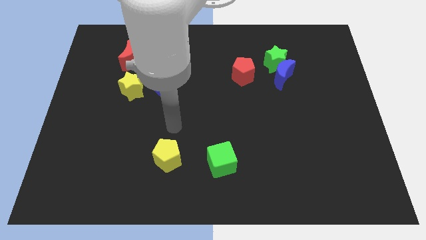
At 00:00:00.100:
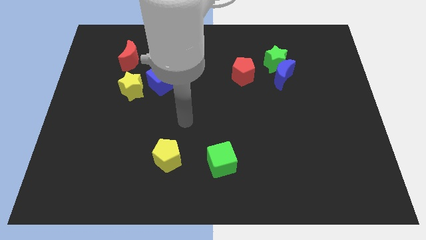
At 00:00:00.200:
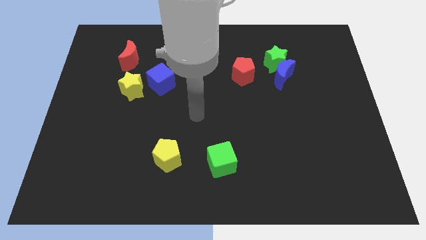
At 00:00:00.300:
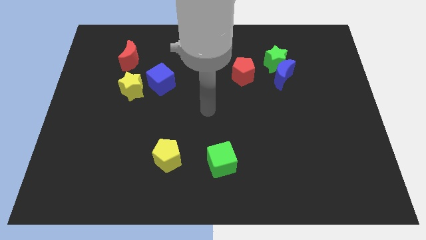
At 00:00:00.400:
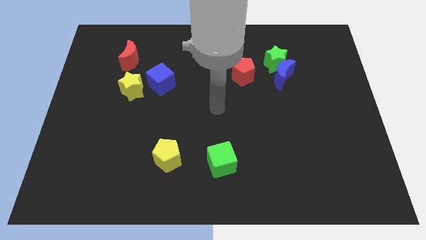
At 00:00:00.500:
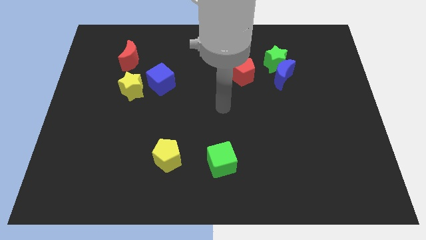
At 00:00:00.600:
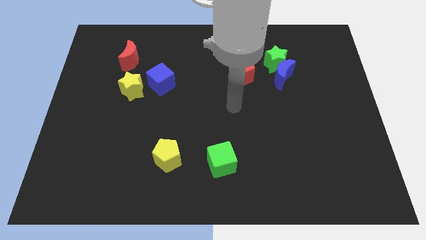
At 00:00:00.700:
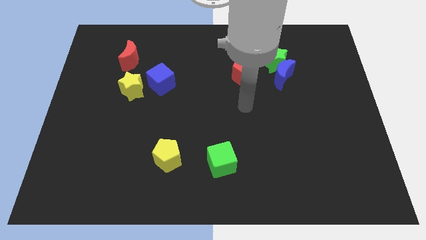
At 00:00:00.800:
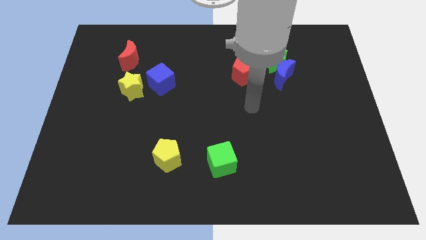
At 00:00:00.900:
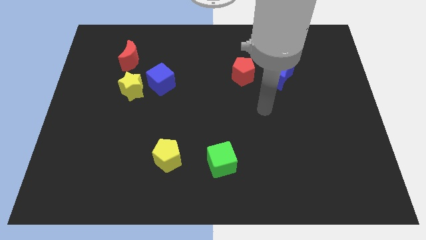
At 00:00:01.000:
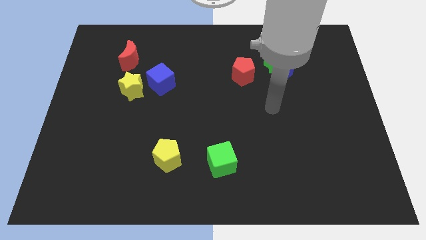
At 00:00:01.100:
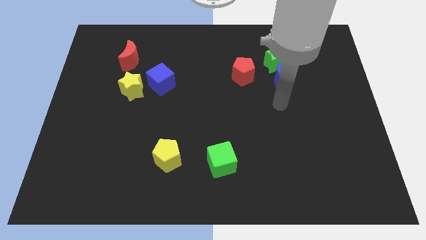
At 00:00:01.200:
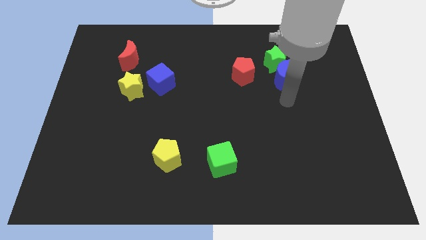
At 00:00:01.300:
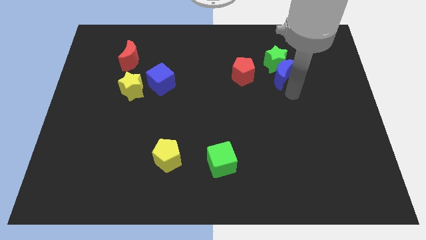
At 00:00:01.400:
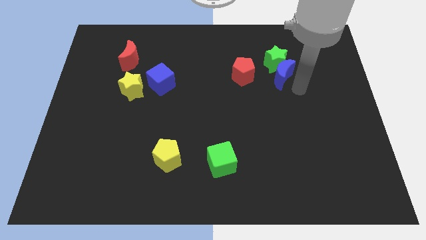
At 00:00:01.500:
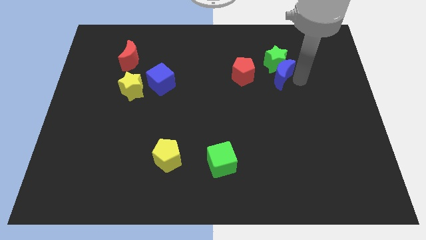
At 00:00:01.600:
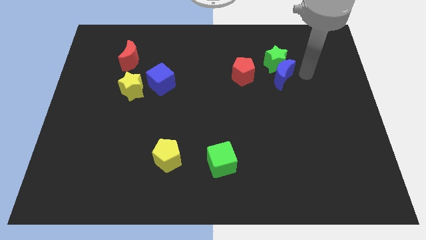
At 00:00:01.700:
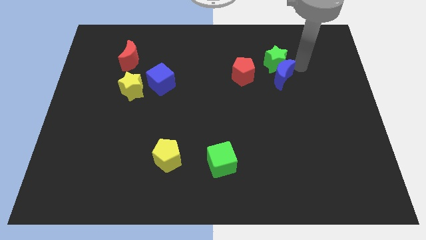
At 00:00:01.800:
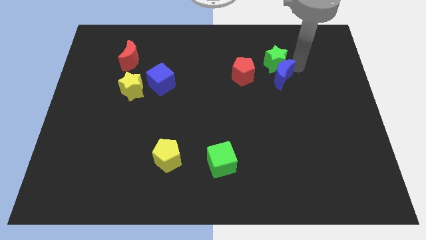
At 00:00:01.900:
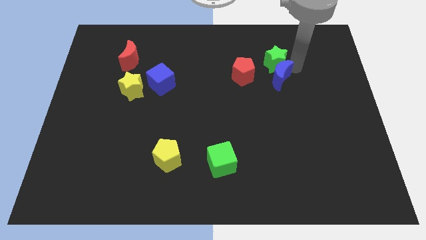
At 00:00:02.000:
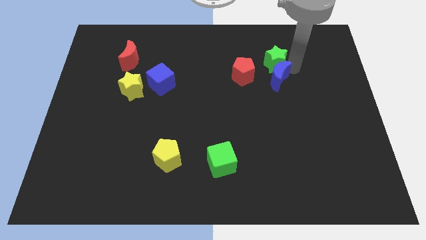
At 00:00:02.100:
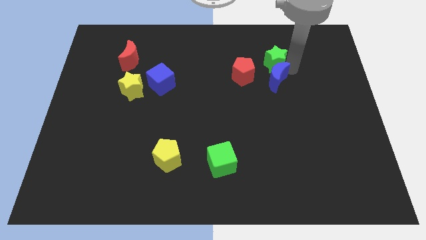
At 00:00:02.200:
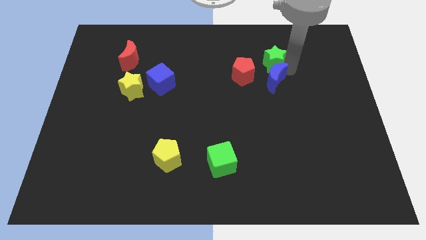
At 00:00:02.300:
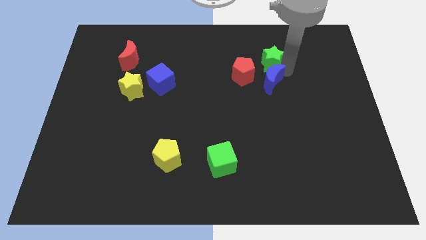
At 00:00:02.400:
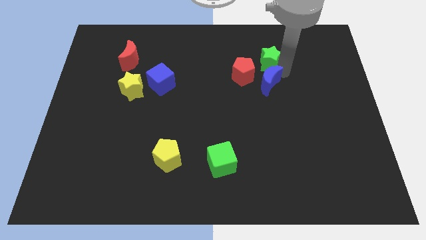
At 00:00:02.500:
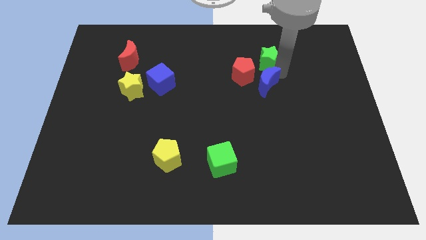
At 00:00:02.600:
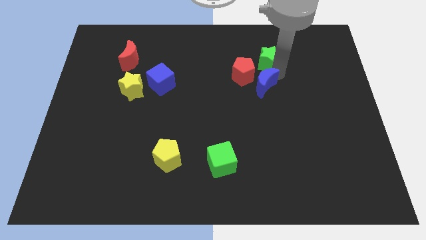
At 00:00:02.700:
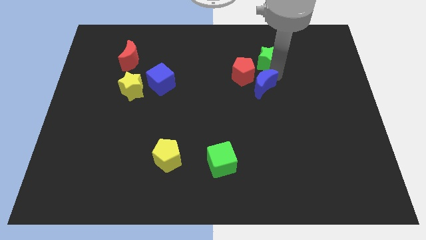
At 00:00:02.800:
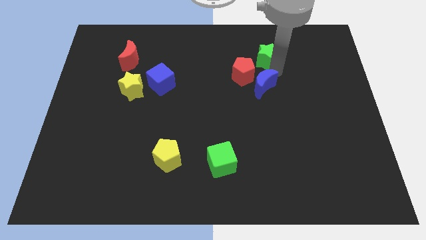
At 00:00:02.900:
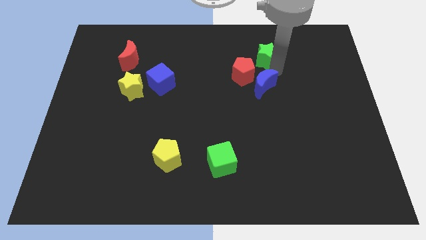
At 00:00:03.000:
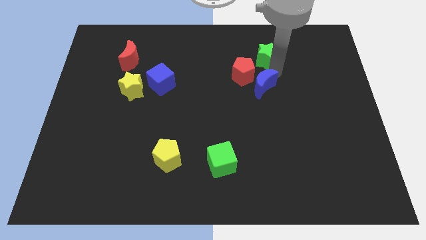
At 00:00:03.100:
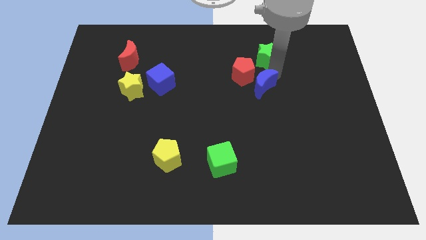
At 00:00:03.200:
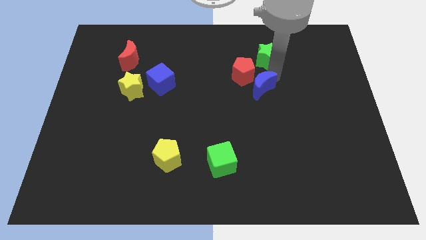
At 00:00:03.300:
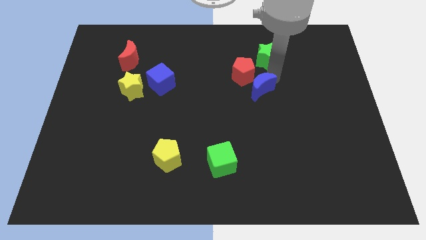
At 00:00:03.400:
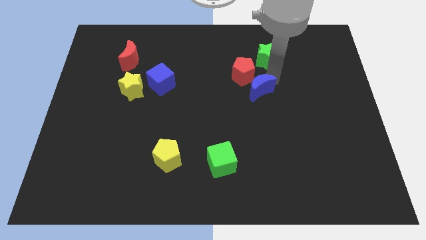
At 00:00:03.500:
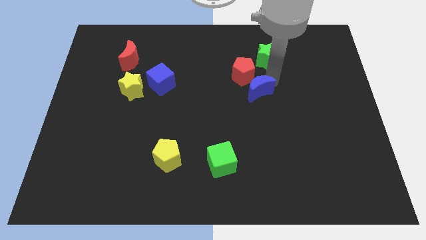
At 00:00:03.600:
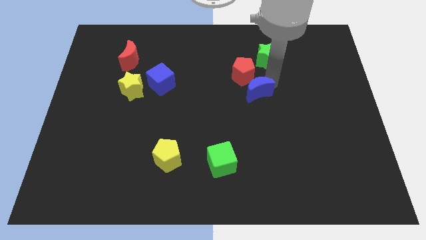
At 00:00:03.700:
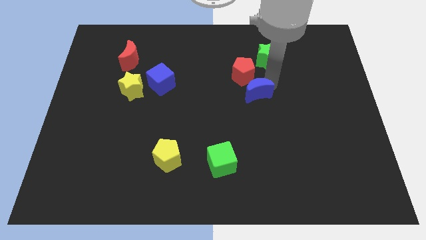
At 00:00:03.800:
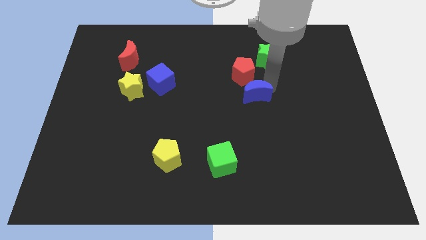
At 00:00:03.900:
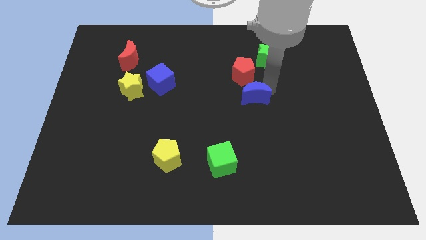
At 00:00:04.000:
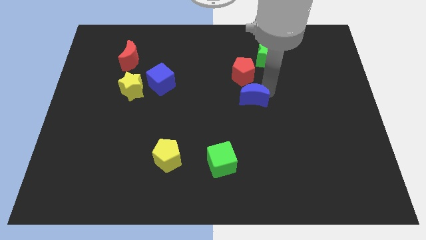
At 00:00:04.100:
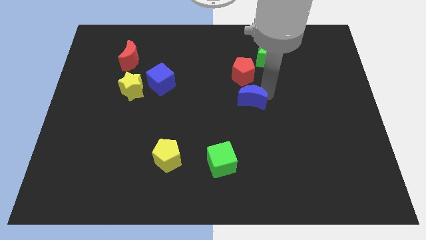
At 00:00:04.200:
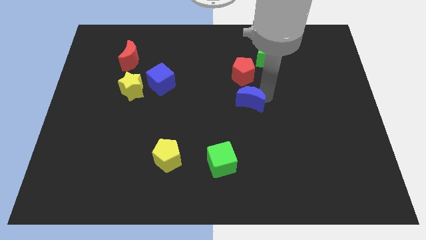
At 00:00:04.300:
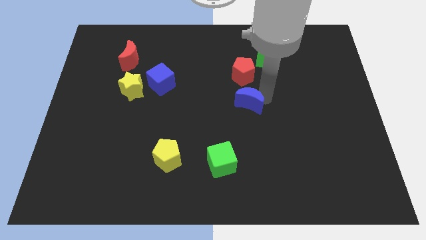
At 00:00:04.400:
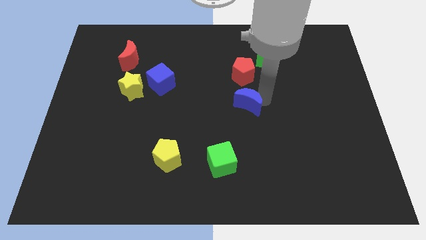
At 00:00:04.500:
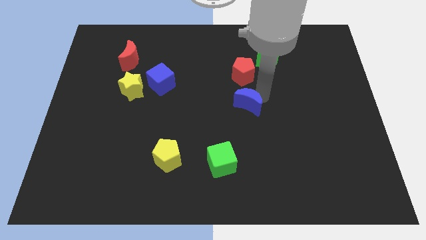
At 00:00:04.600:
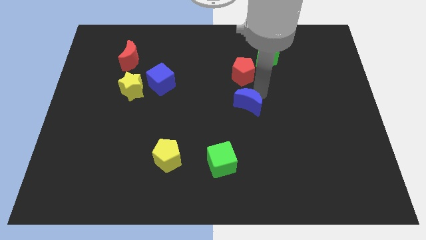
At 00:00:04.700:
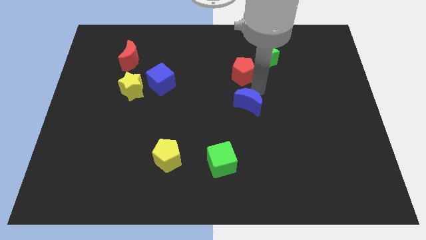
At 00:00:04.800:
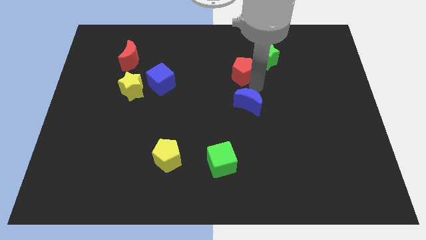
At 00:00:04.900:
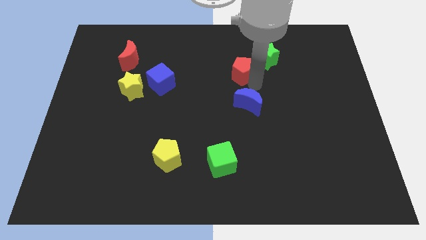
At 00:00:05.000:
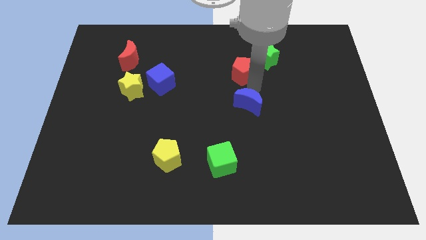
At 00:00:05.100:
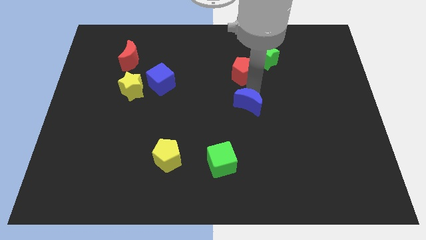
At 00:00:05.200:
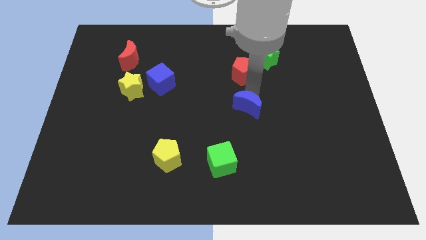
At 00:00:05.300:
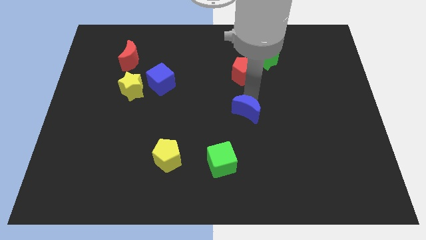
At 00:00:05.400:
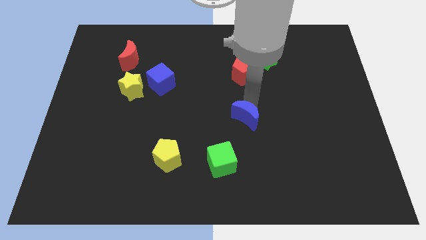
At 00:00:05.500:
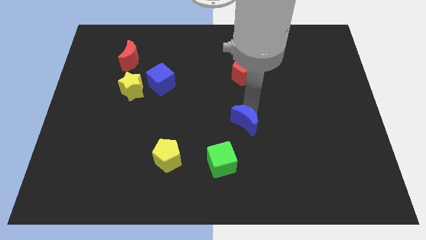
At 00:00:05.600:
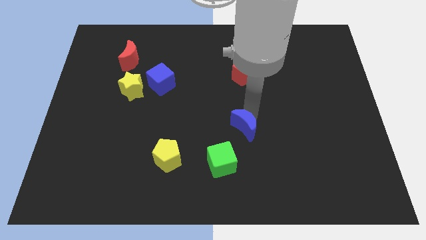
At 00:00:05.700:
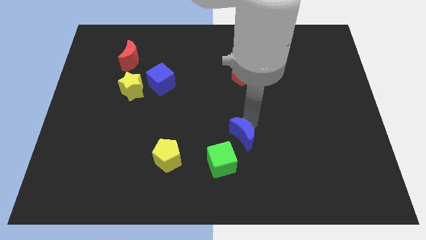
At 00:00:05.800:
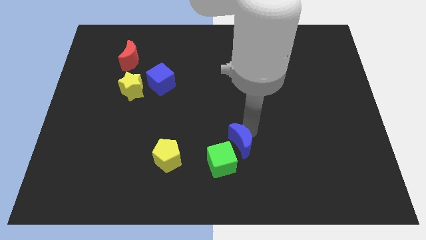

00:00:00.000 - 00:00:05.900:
slide the blue moon diagonally downwards and to the left

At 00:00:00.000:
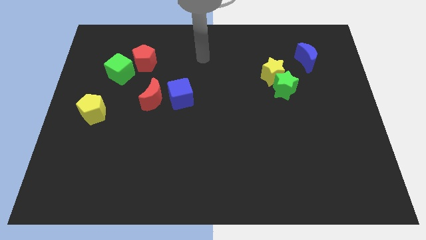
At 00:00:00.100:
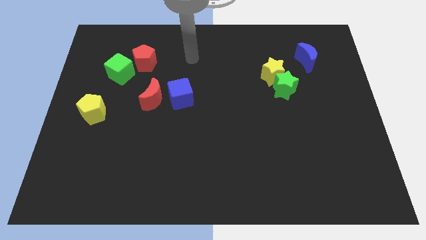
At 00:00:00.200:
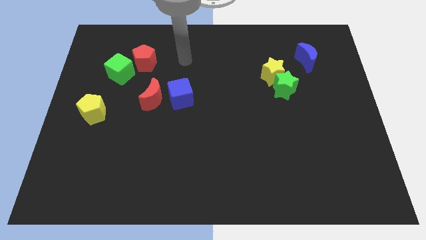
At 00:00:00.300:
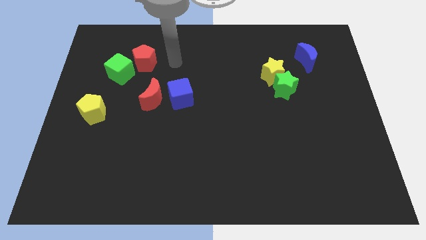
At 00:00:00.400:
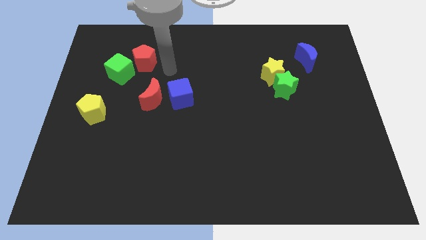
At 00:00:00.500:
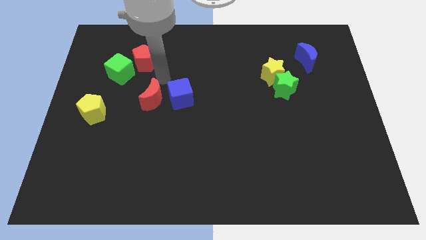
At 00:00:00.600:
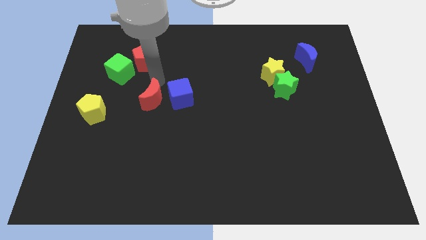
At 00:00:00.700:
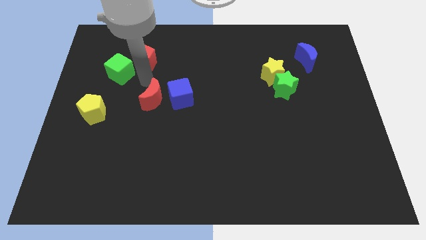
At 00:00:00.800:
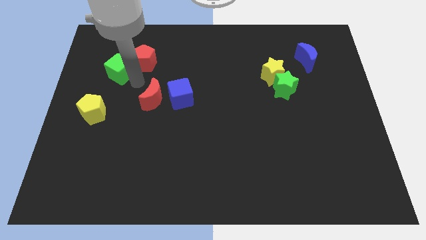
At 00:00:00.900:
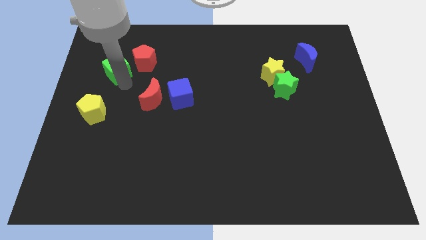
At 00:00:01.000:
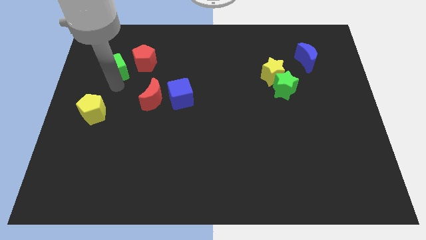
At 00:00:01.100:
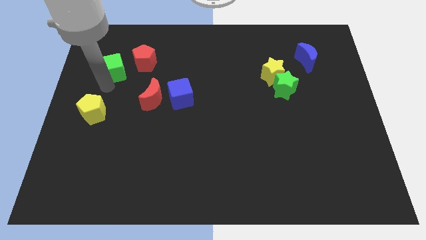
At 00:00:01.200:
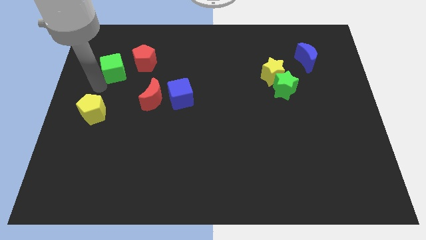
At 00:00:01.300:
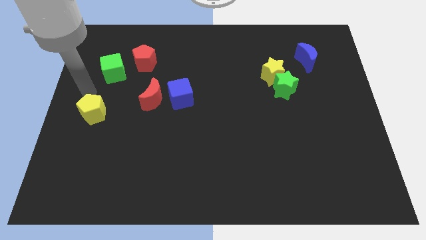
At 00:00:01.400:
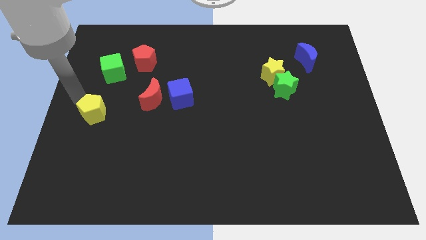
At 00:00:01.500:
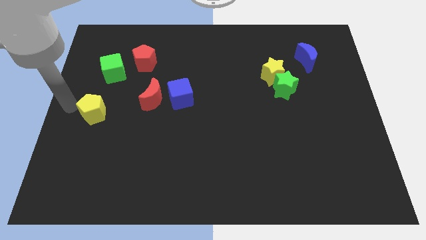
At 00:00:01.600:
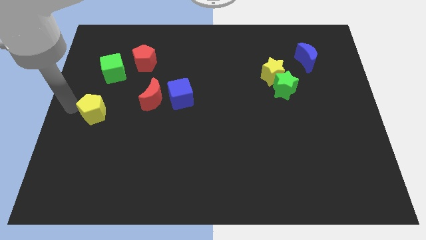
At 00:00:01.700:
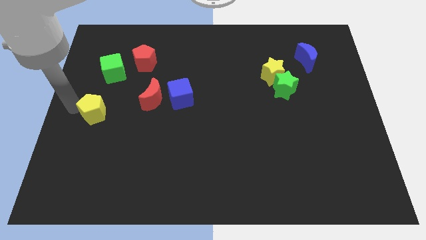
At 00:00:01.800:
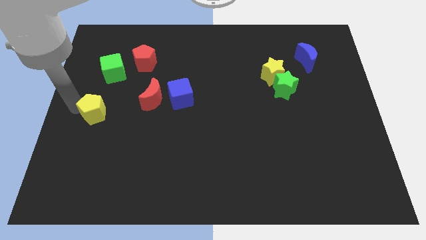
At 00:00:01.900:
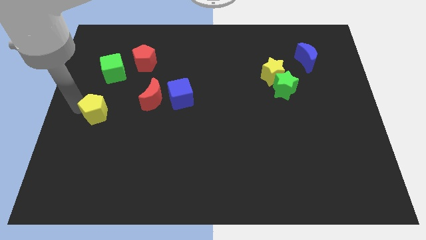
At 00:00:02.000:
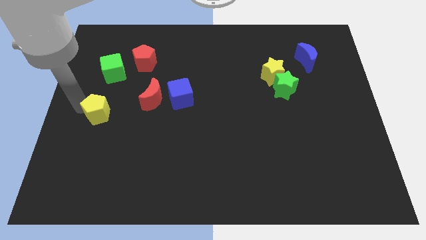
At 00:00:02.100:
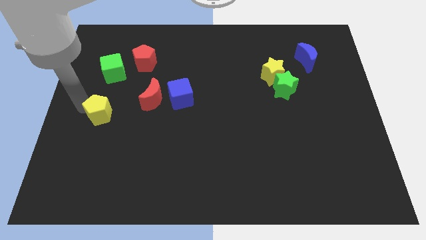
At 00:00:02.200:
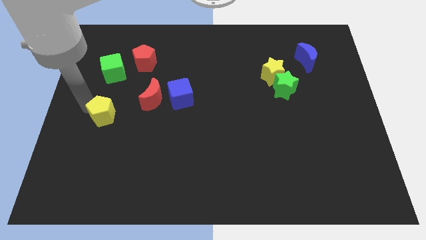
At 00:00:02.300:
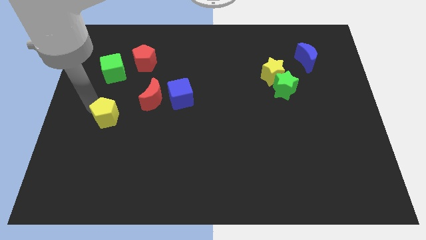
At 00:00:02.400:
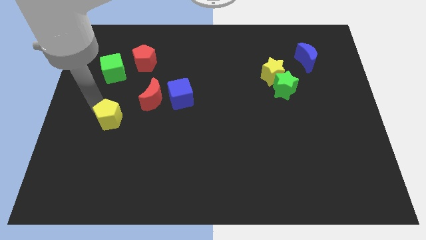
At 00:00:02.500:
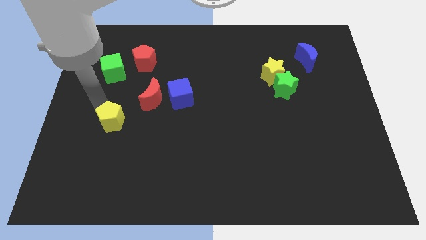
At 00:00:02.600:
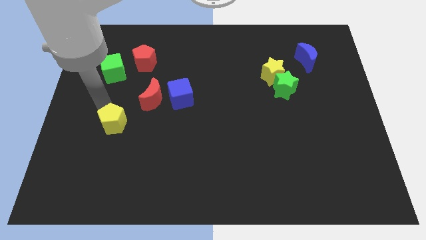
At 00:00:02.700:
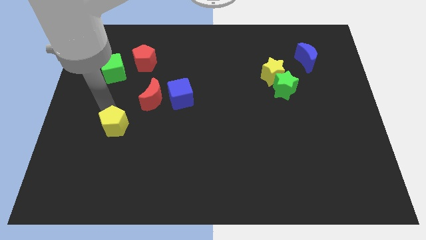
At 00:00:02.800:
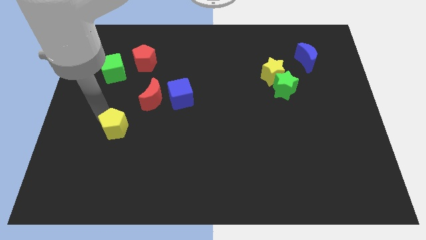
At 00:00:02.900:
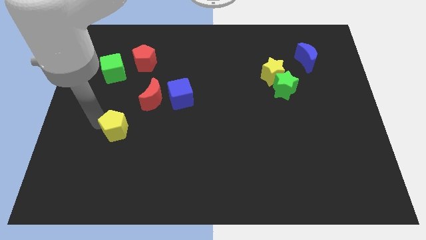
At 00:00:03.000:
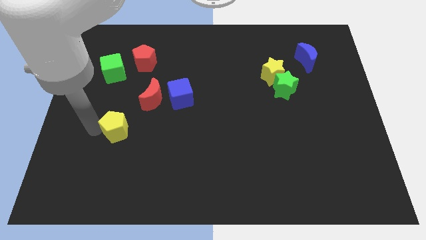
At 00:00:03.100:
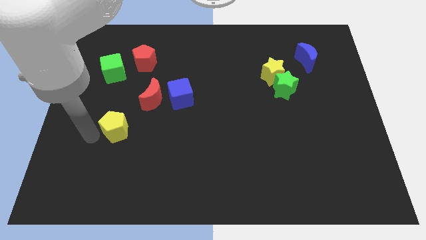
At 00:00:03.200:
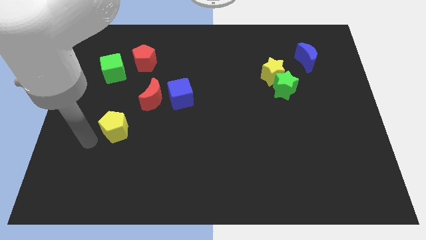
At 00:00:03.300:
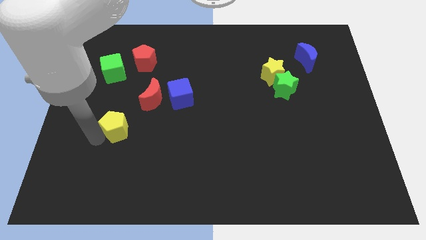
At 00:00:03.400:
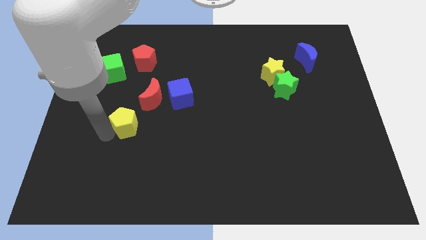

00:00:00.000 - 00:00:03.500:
move the yellow pentagon to the right a little bit
